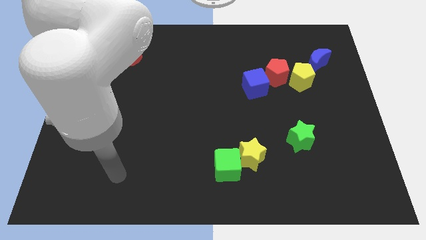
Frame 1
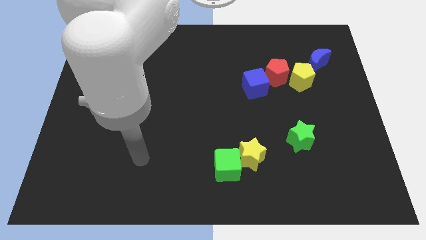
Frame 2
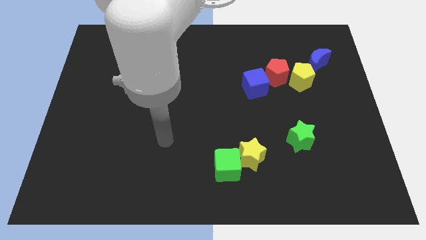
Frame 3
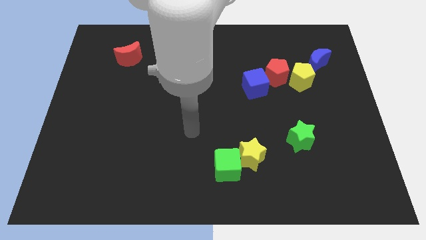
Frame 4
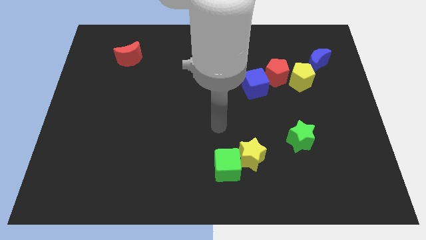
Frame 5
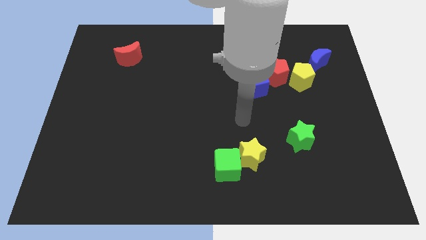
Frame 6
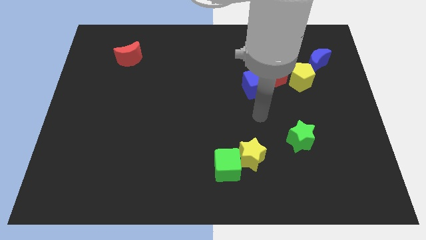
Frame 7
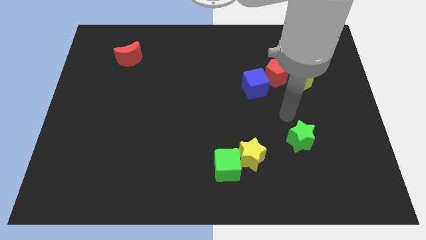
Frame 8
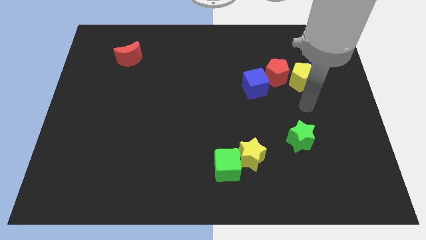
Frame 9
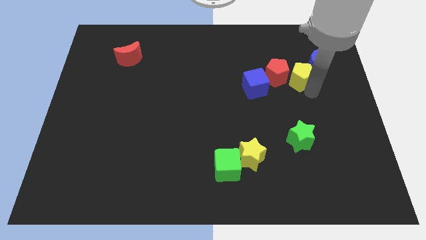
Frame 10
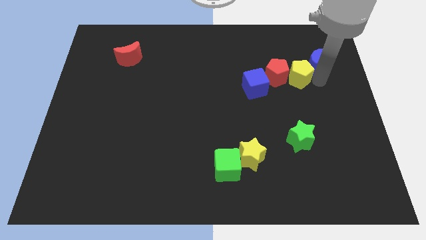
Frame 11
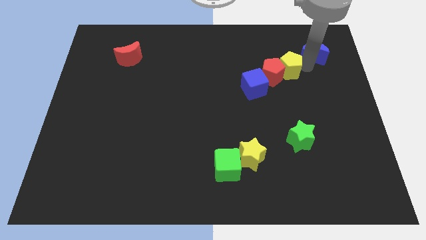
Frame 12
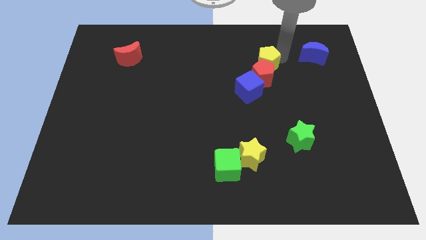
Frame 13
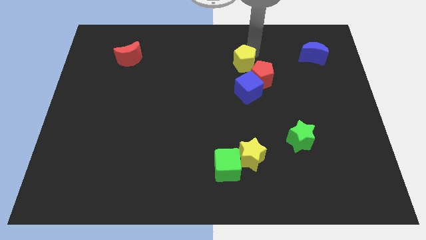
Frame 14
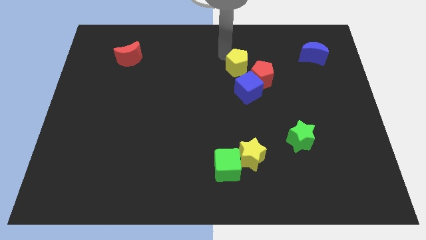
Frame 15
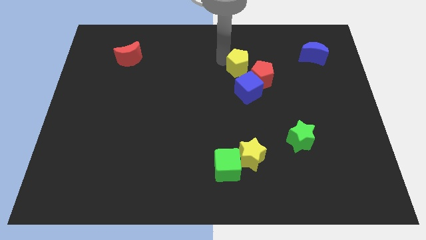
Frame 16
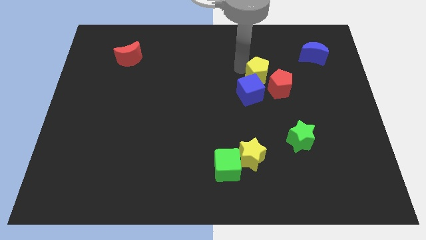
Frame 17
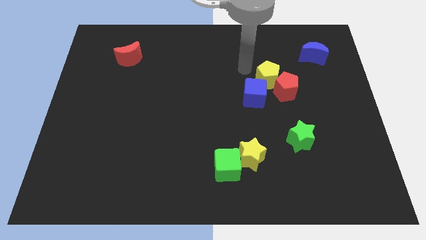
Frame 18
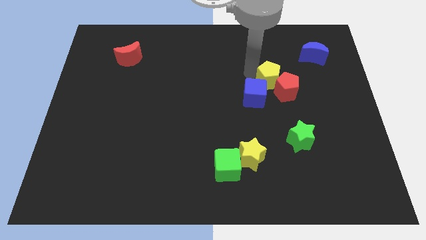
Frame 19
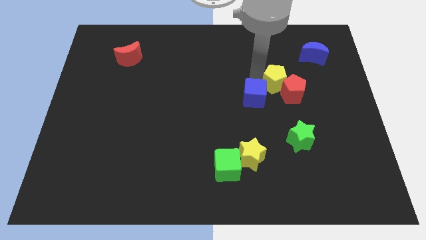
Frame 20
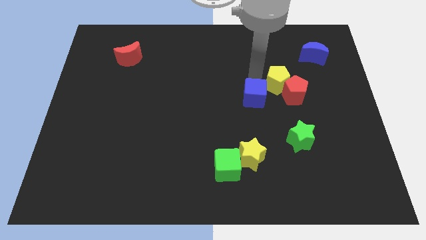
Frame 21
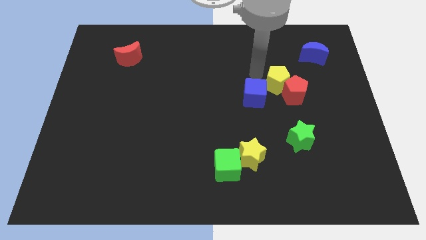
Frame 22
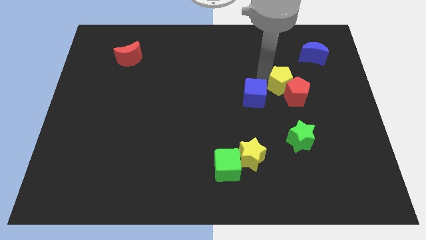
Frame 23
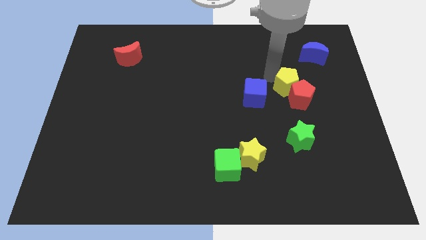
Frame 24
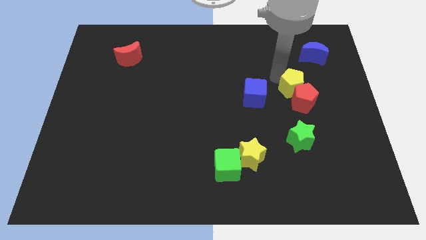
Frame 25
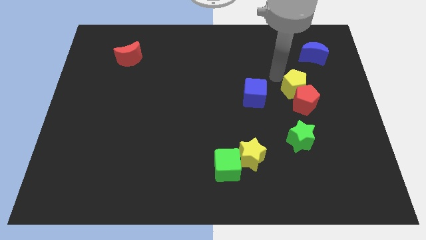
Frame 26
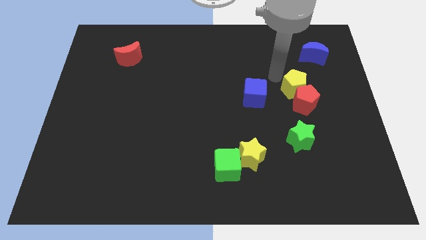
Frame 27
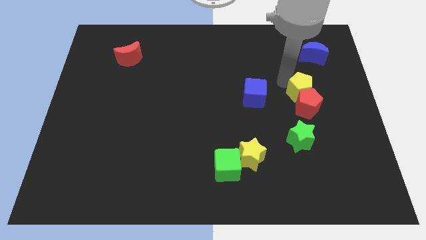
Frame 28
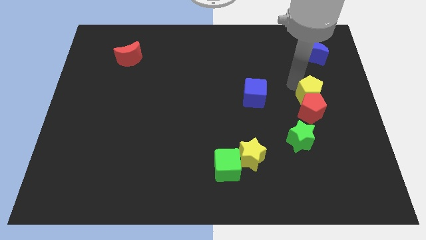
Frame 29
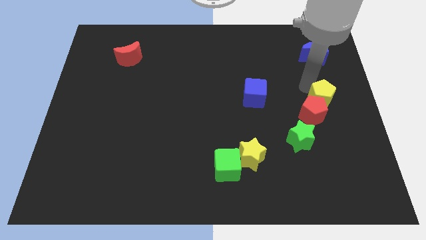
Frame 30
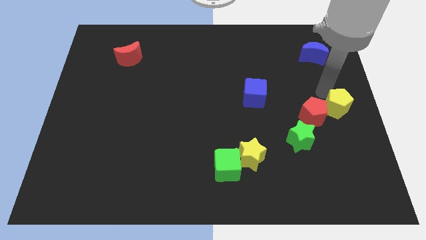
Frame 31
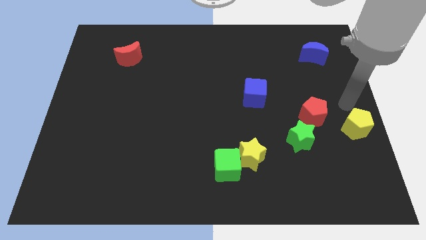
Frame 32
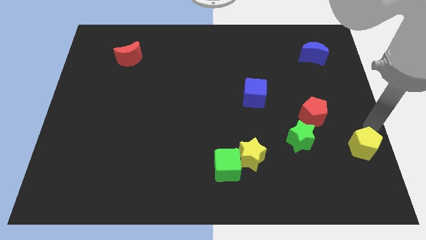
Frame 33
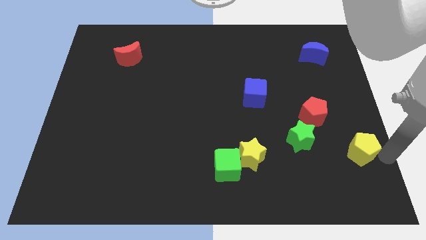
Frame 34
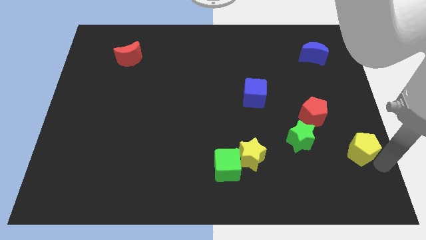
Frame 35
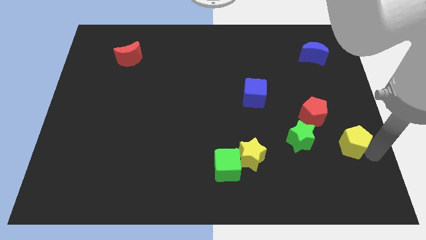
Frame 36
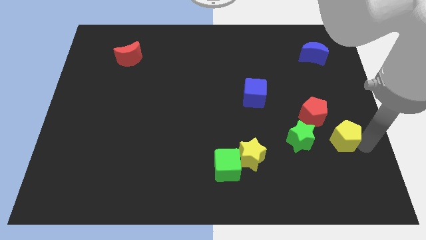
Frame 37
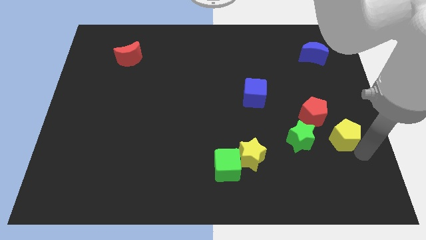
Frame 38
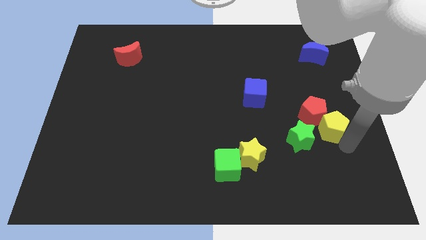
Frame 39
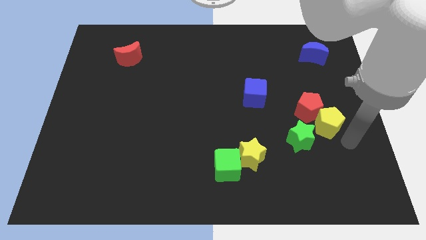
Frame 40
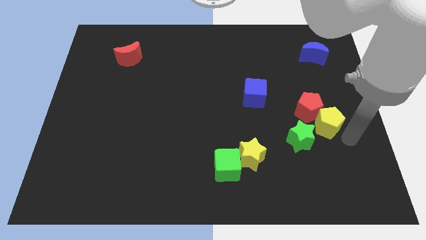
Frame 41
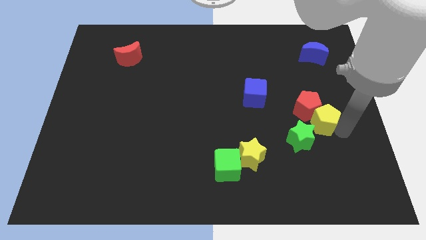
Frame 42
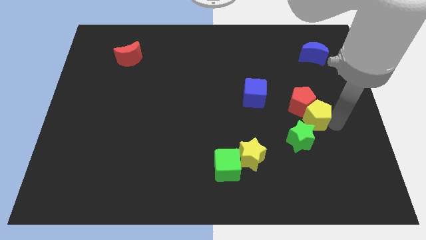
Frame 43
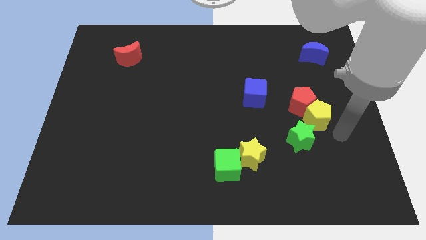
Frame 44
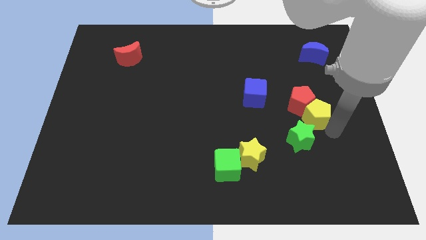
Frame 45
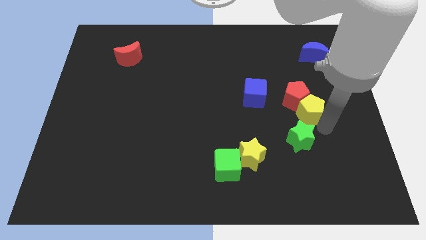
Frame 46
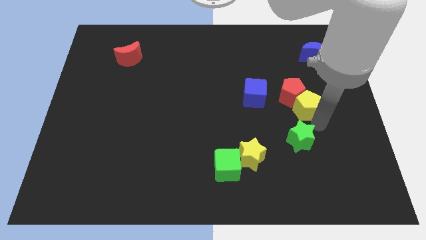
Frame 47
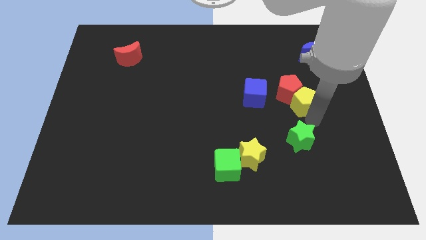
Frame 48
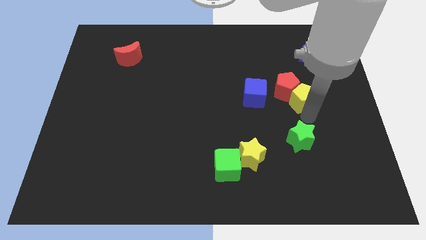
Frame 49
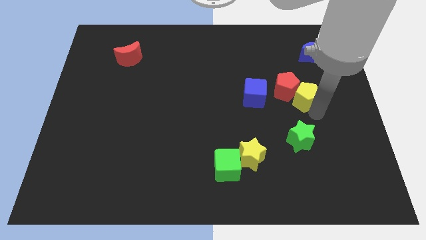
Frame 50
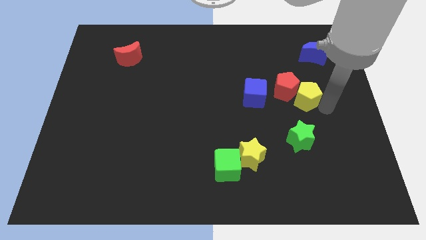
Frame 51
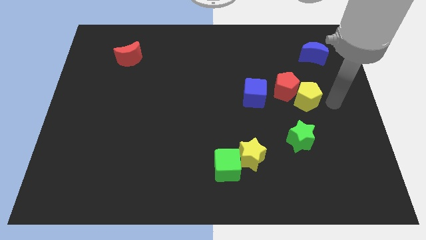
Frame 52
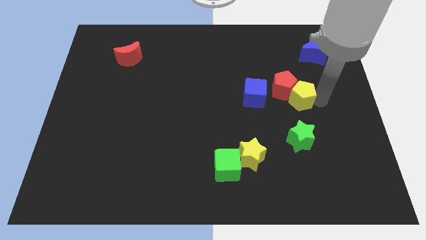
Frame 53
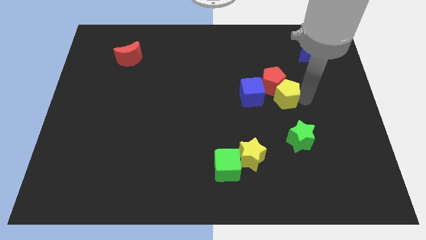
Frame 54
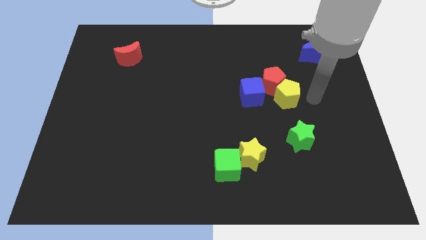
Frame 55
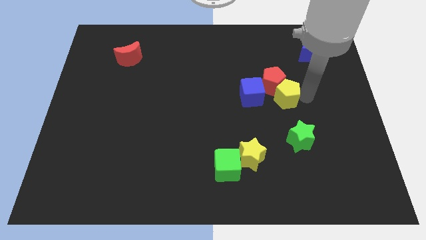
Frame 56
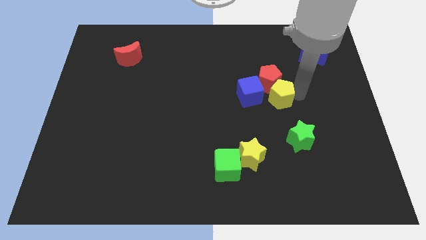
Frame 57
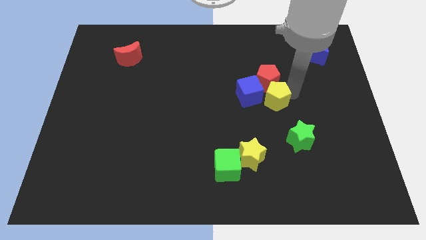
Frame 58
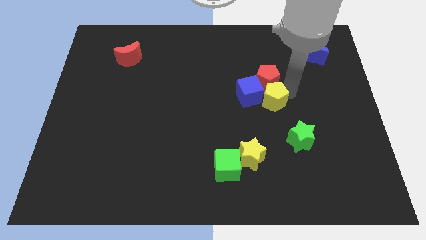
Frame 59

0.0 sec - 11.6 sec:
push the yellow pentagon to the blue cube
